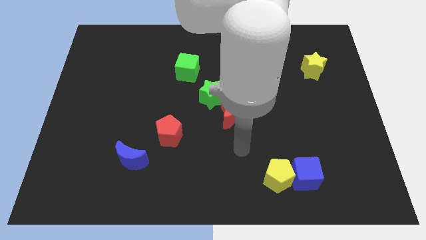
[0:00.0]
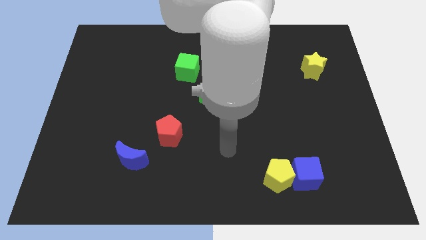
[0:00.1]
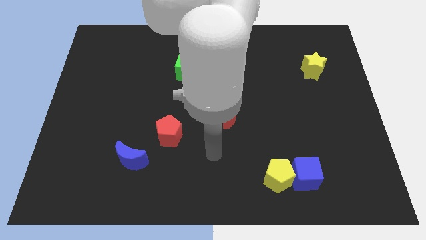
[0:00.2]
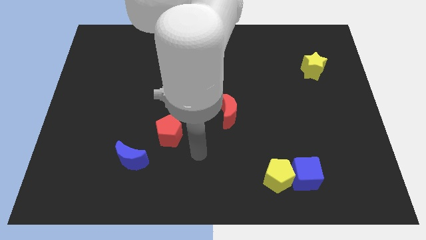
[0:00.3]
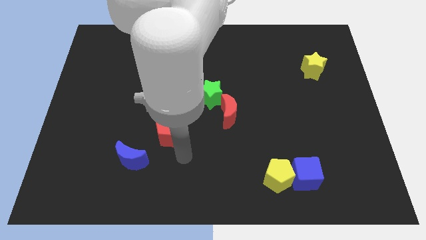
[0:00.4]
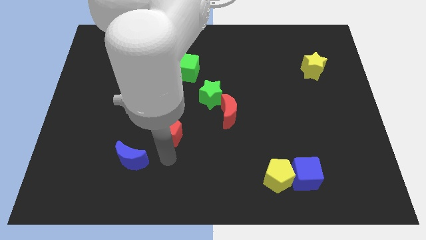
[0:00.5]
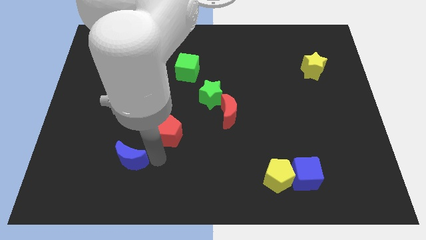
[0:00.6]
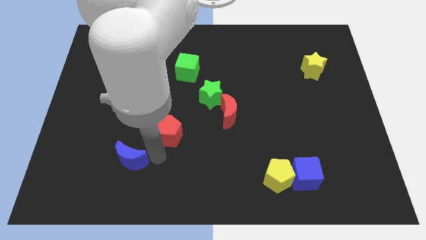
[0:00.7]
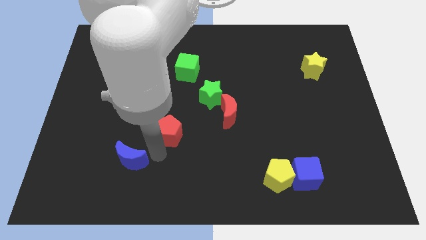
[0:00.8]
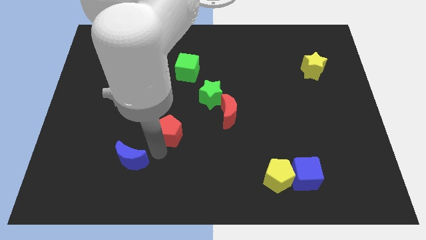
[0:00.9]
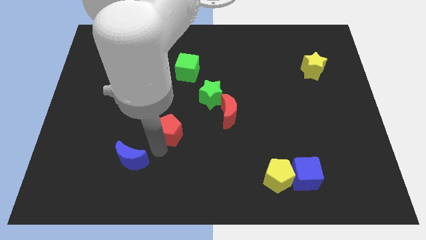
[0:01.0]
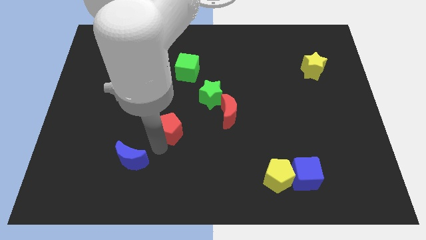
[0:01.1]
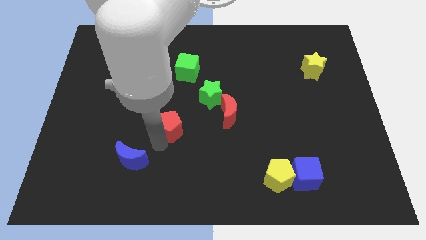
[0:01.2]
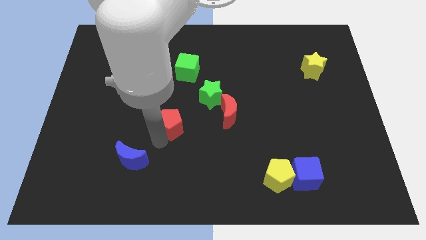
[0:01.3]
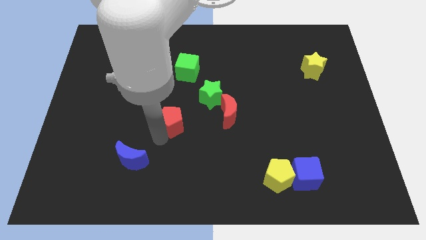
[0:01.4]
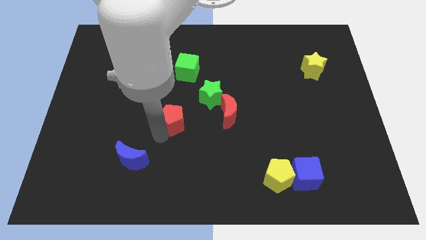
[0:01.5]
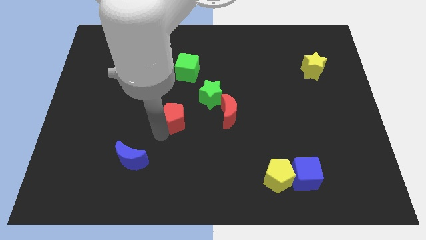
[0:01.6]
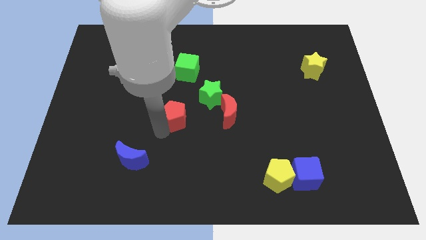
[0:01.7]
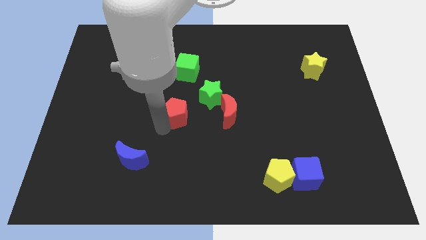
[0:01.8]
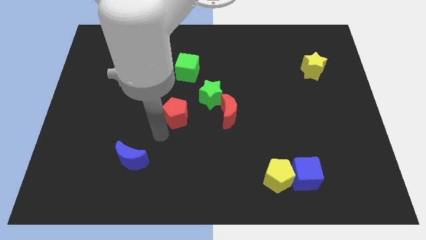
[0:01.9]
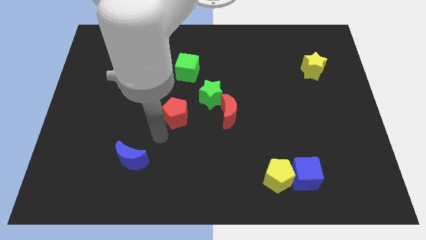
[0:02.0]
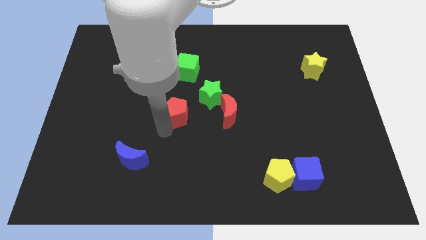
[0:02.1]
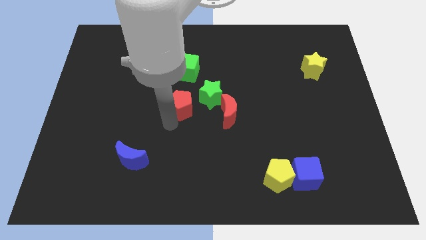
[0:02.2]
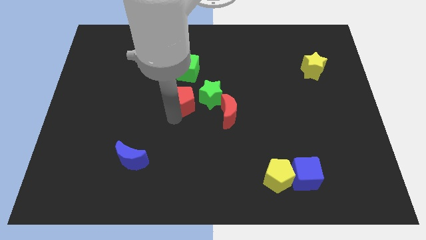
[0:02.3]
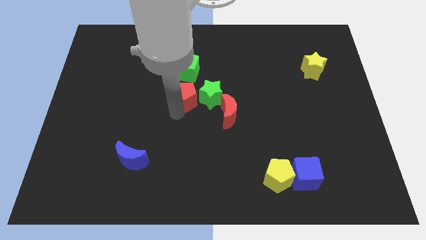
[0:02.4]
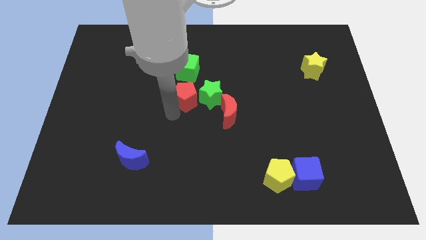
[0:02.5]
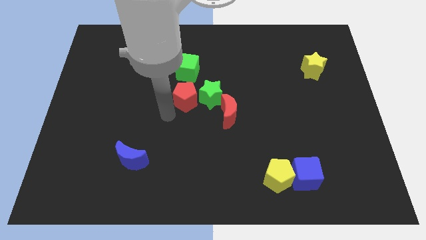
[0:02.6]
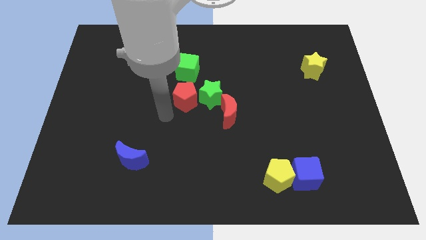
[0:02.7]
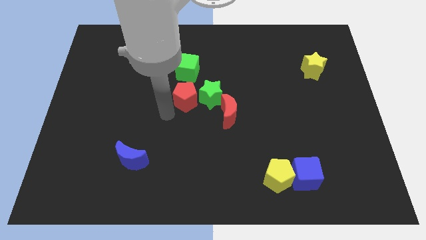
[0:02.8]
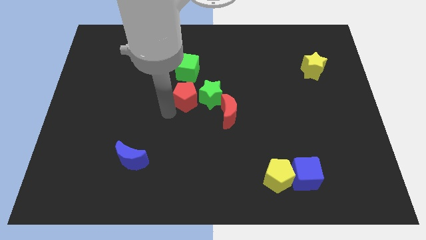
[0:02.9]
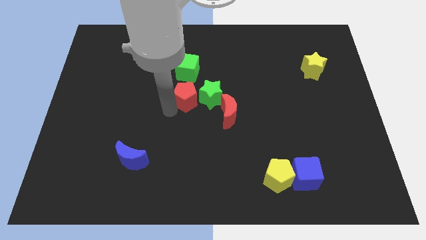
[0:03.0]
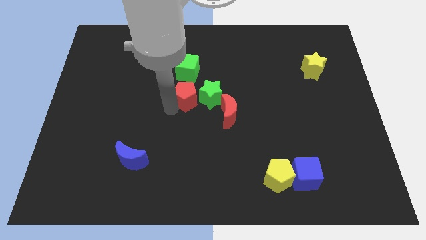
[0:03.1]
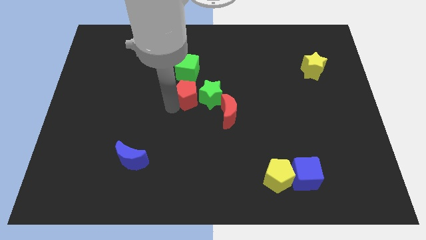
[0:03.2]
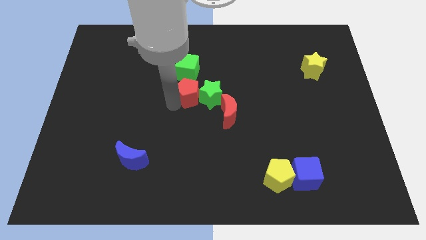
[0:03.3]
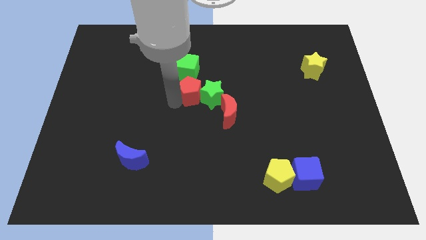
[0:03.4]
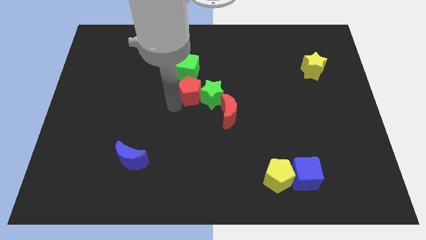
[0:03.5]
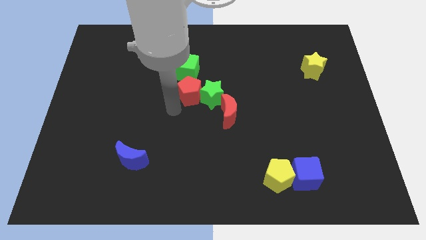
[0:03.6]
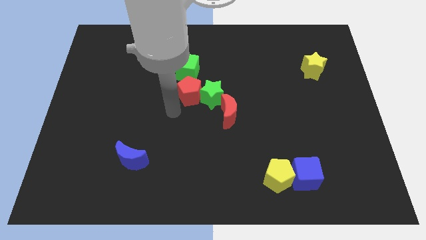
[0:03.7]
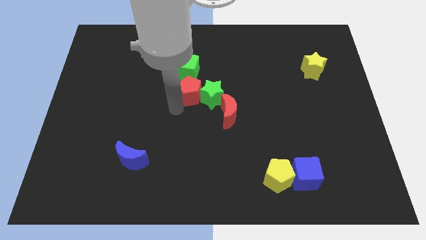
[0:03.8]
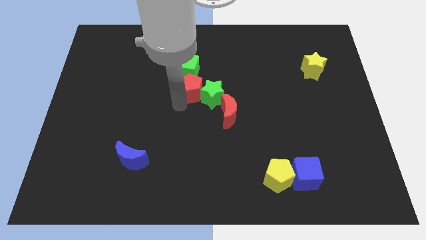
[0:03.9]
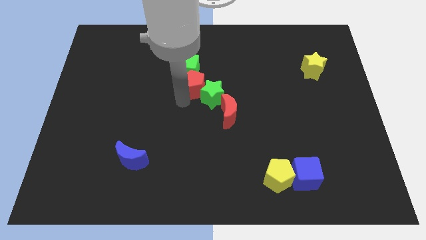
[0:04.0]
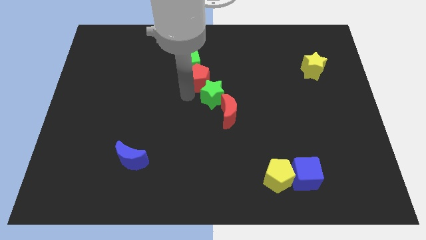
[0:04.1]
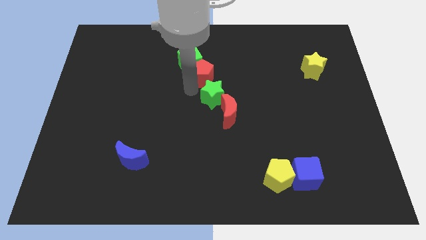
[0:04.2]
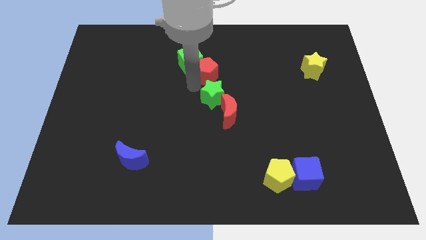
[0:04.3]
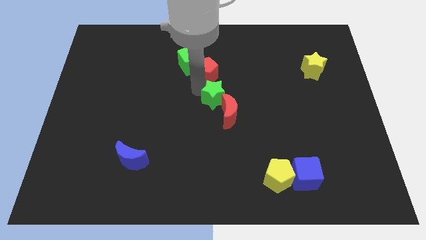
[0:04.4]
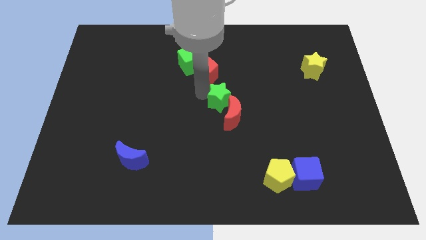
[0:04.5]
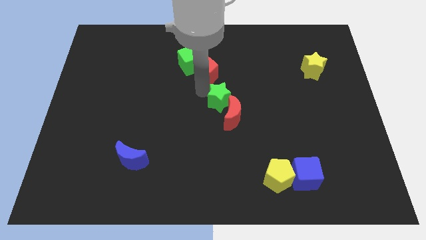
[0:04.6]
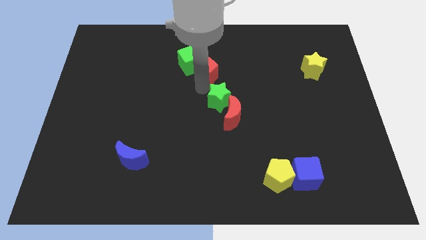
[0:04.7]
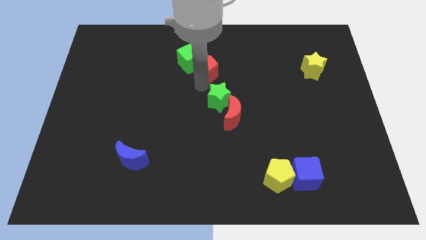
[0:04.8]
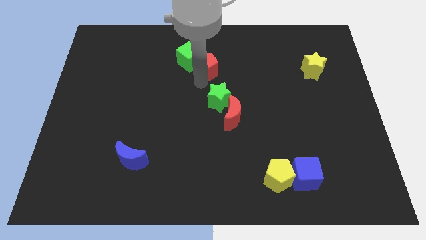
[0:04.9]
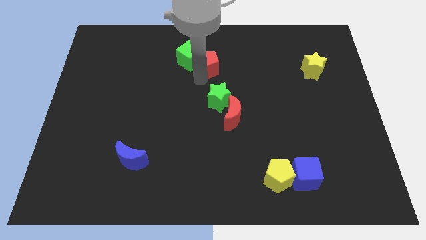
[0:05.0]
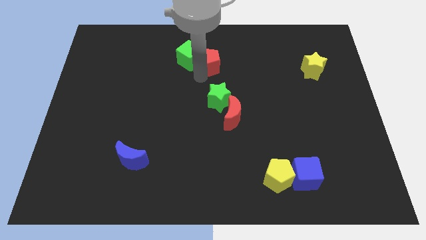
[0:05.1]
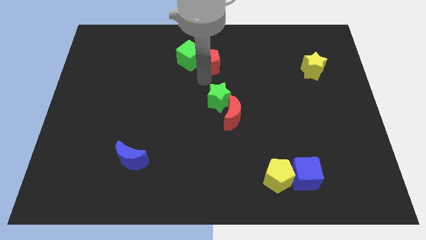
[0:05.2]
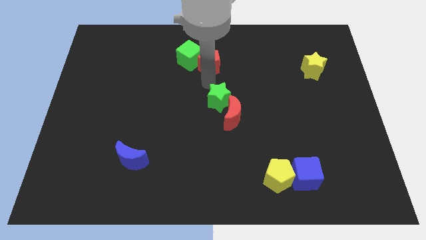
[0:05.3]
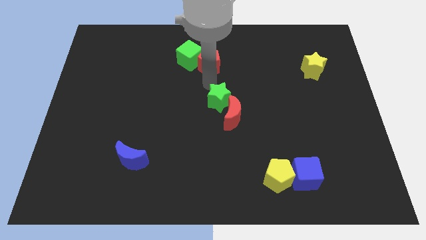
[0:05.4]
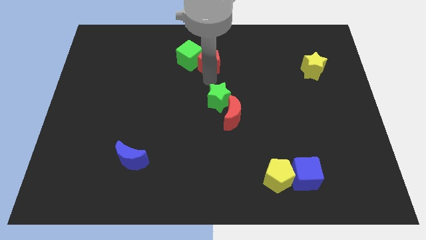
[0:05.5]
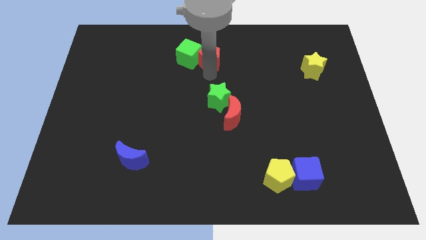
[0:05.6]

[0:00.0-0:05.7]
move the red pentagon diagonally up and to the right of the green cube

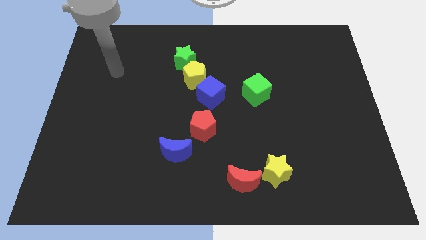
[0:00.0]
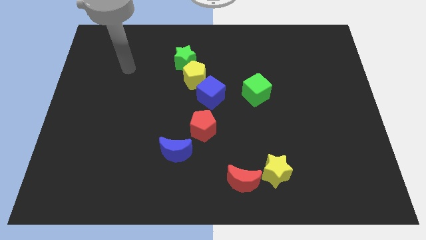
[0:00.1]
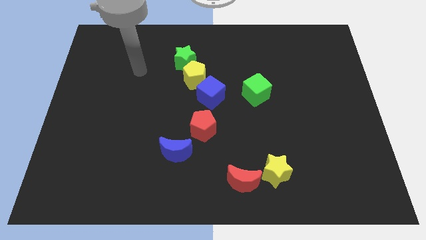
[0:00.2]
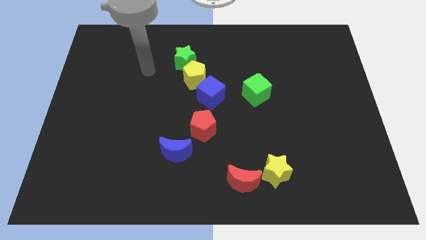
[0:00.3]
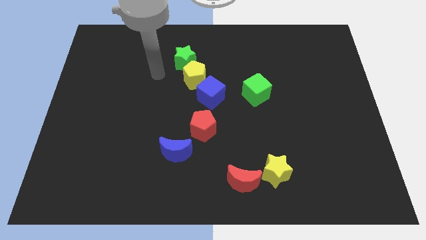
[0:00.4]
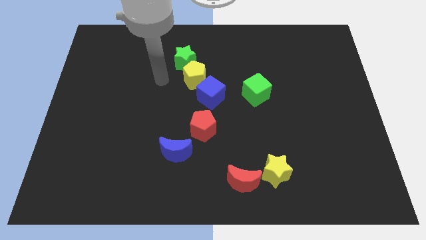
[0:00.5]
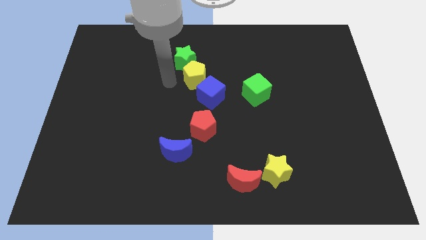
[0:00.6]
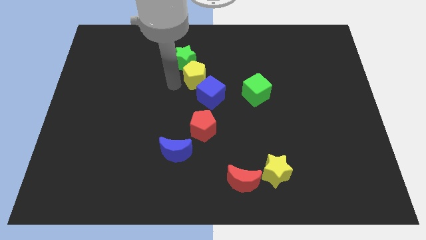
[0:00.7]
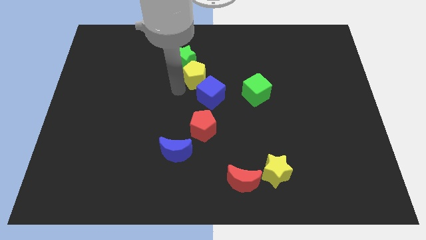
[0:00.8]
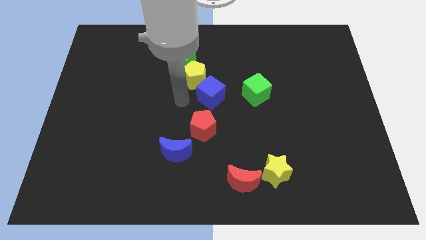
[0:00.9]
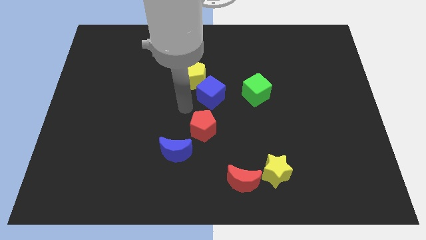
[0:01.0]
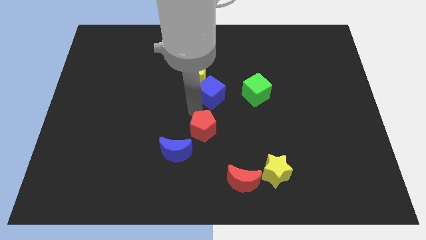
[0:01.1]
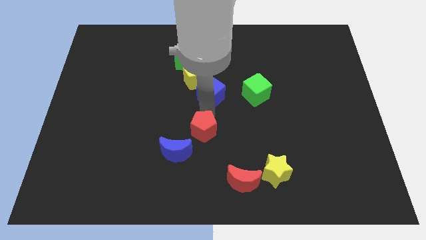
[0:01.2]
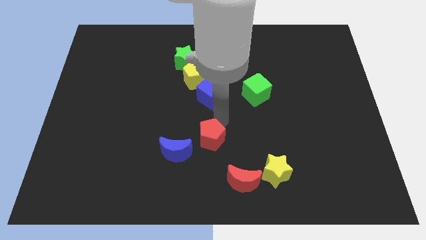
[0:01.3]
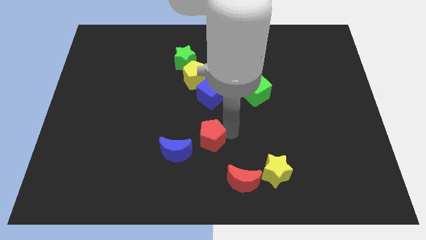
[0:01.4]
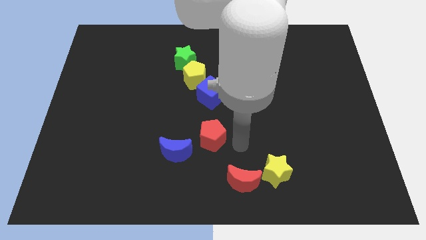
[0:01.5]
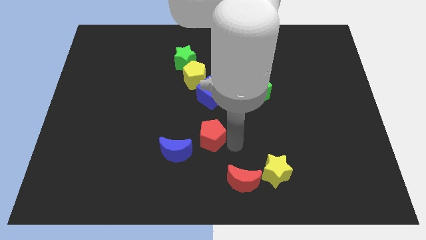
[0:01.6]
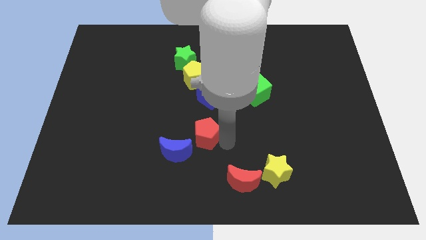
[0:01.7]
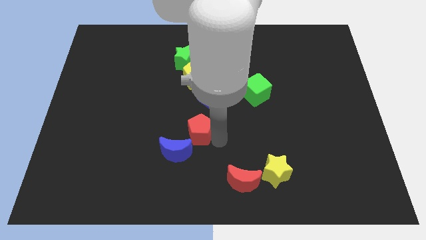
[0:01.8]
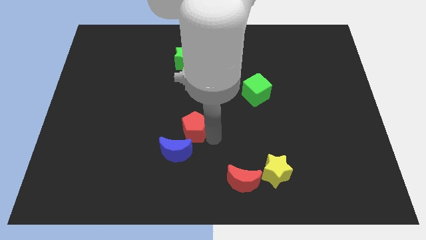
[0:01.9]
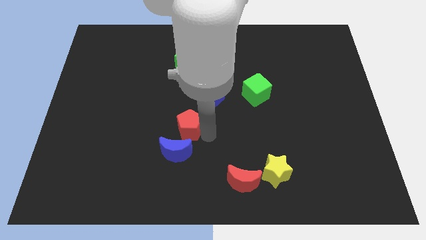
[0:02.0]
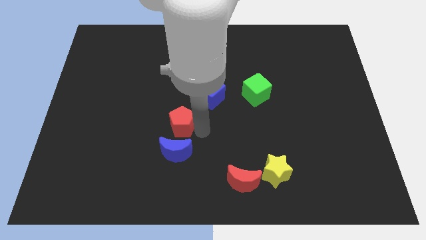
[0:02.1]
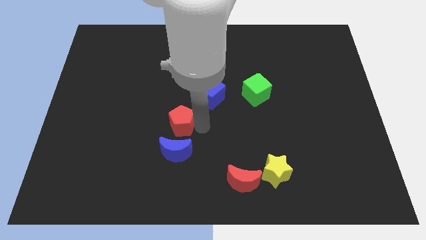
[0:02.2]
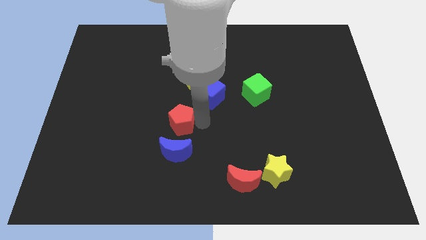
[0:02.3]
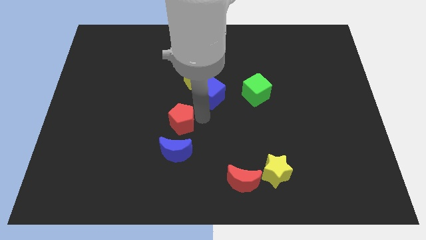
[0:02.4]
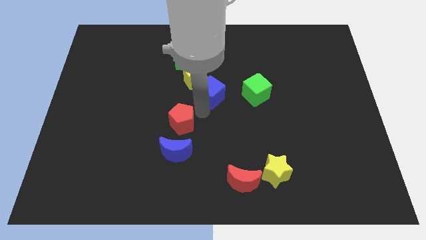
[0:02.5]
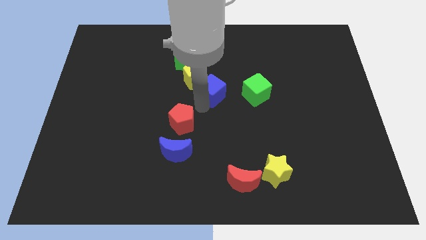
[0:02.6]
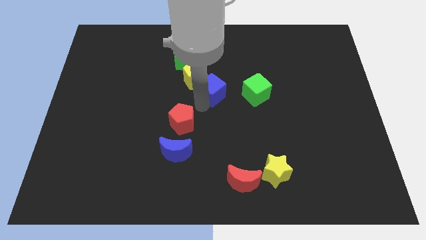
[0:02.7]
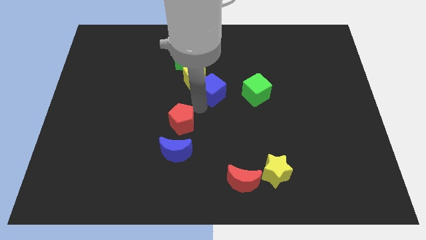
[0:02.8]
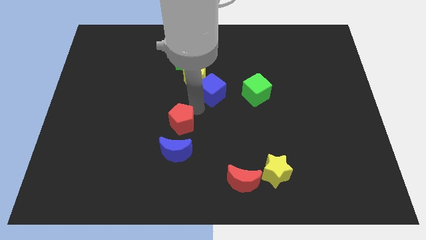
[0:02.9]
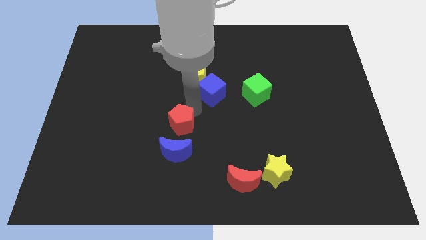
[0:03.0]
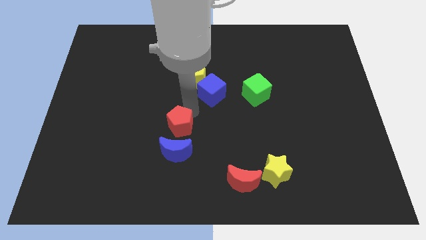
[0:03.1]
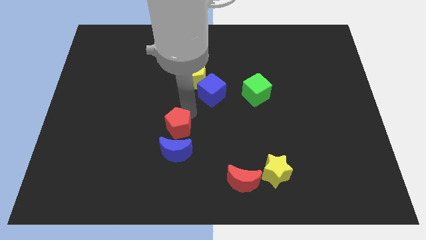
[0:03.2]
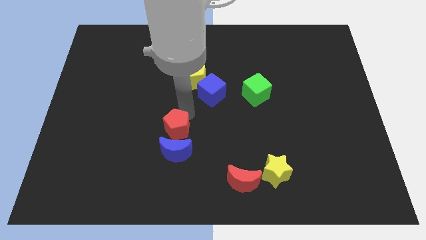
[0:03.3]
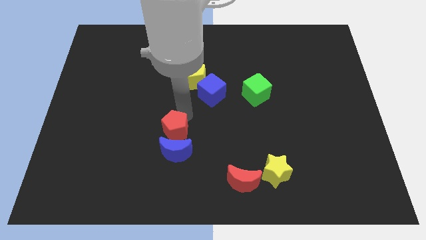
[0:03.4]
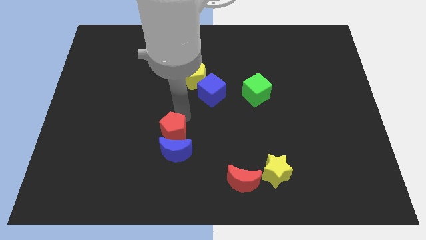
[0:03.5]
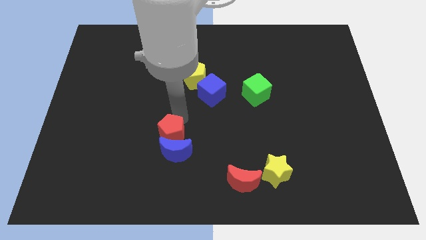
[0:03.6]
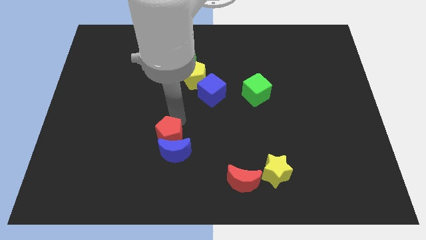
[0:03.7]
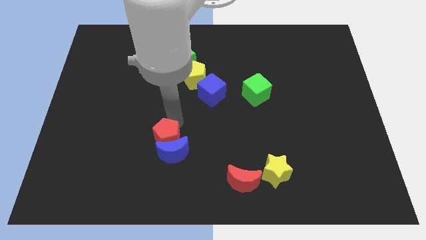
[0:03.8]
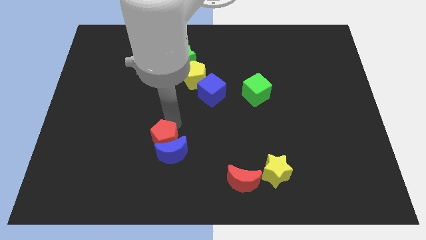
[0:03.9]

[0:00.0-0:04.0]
push the red pentagon just left of the blue moon
